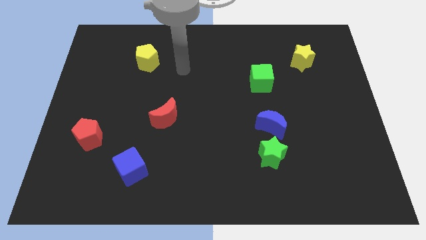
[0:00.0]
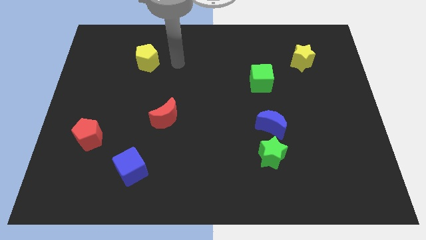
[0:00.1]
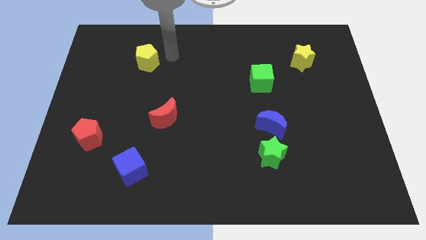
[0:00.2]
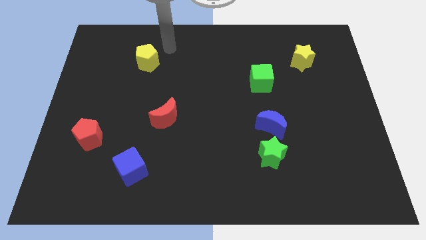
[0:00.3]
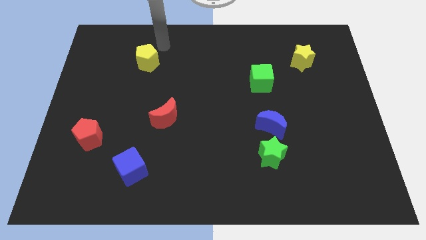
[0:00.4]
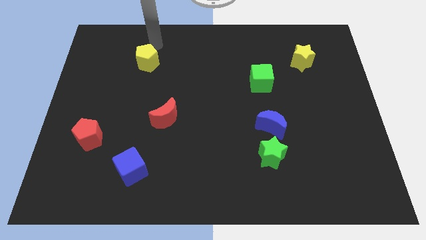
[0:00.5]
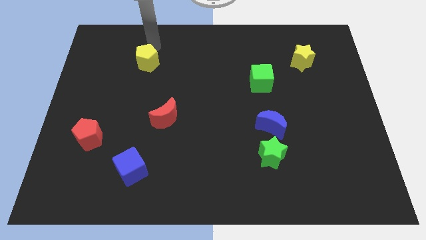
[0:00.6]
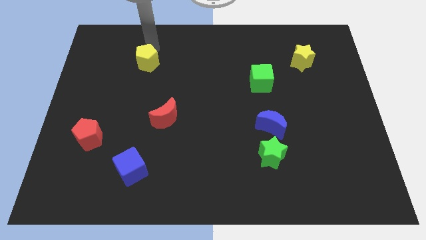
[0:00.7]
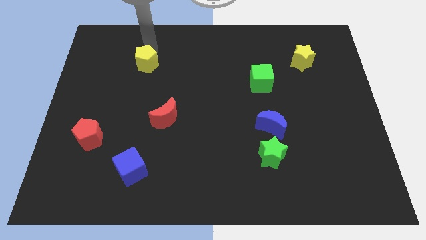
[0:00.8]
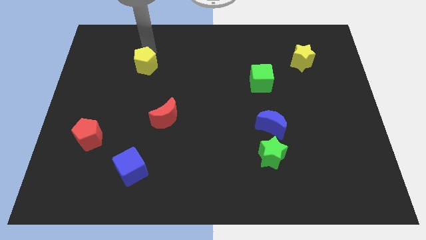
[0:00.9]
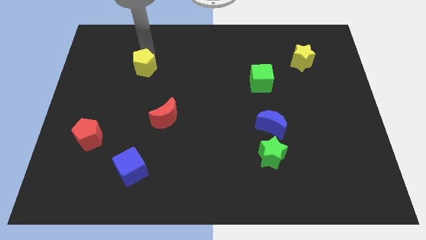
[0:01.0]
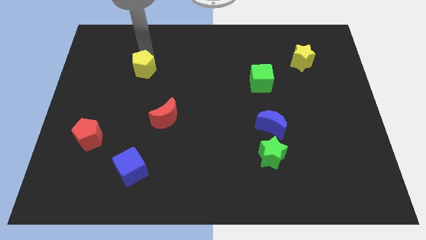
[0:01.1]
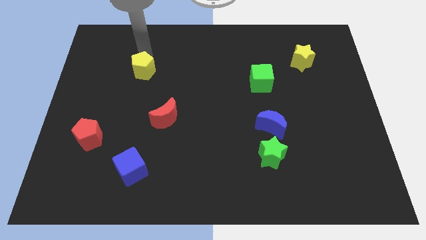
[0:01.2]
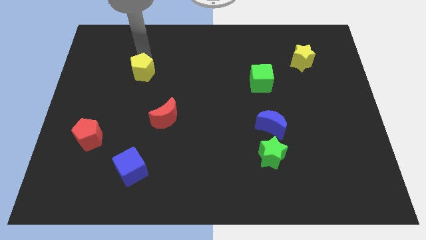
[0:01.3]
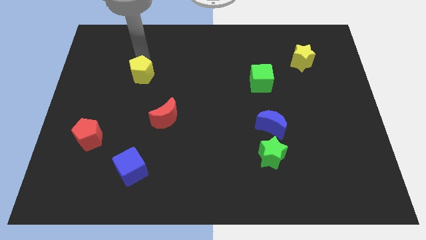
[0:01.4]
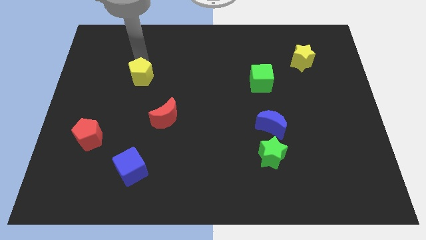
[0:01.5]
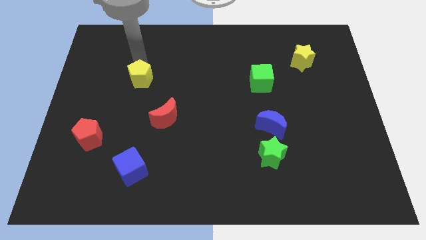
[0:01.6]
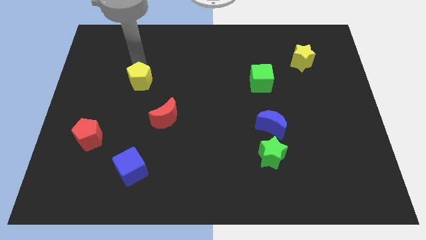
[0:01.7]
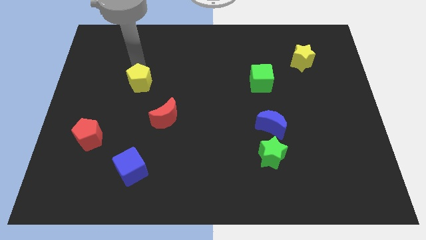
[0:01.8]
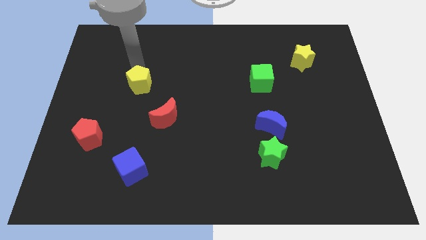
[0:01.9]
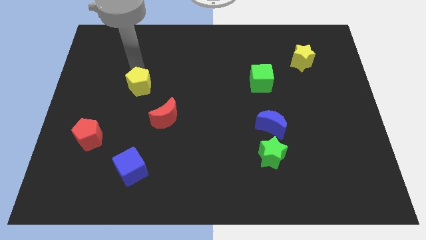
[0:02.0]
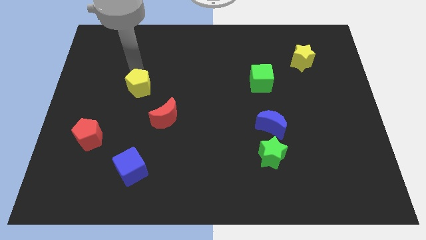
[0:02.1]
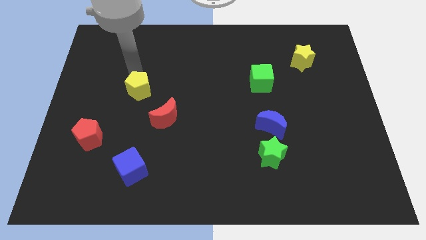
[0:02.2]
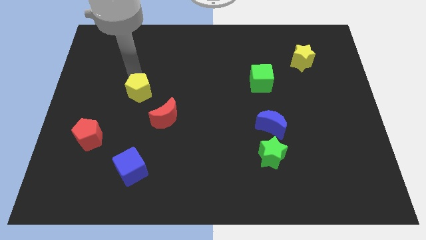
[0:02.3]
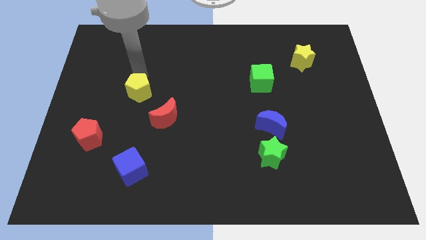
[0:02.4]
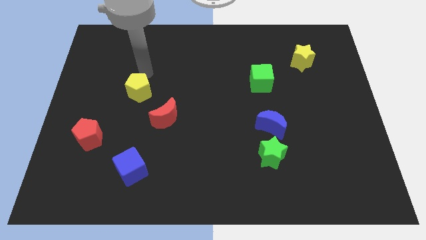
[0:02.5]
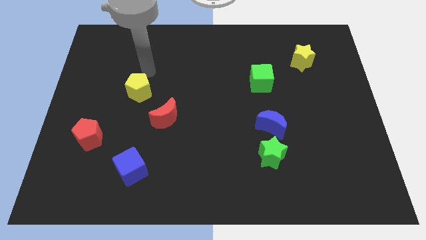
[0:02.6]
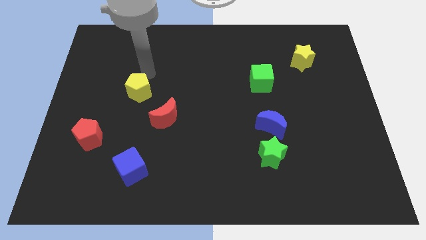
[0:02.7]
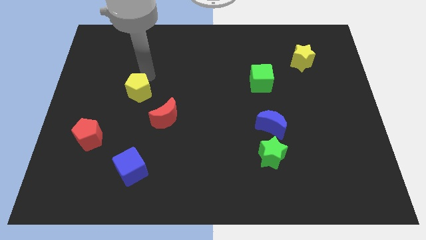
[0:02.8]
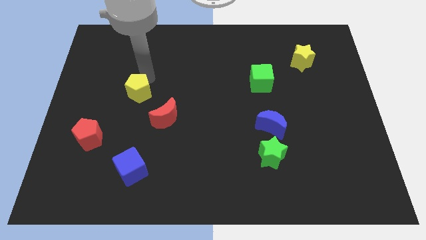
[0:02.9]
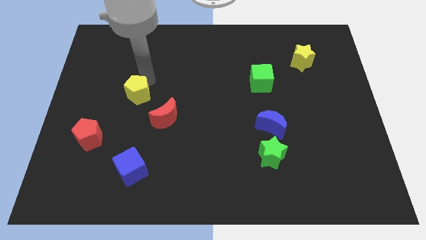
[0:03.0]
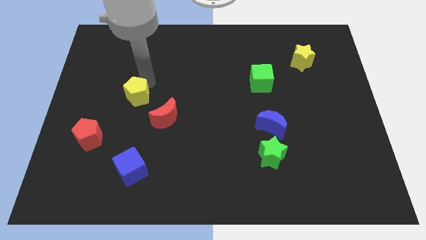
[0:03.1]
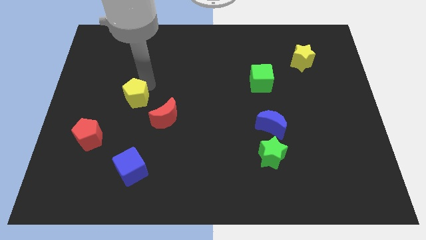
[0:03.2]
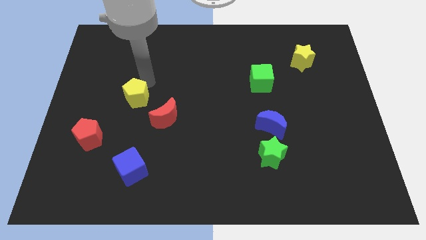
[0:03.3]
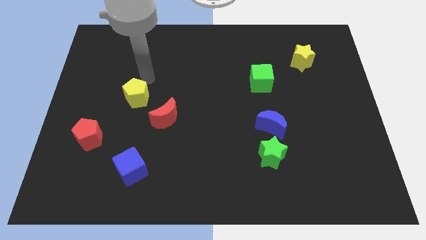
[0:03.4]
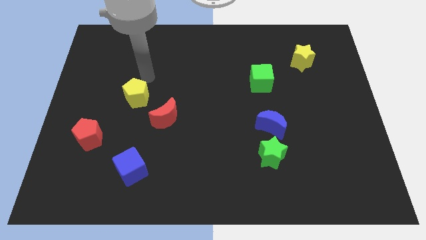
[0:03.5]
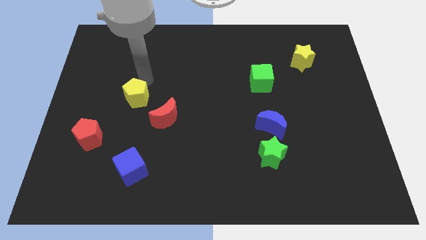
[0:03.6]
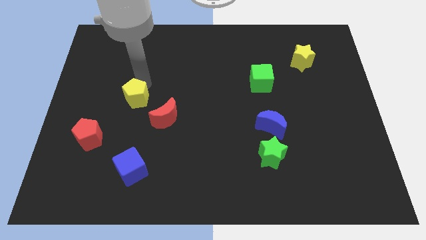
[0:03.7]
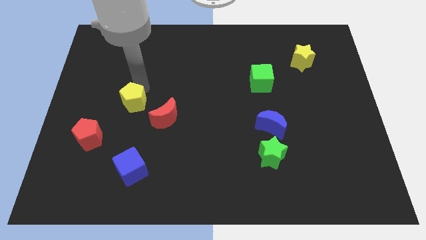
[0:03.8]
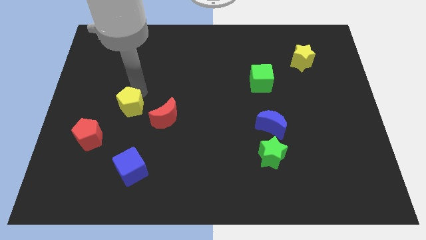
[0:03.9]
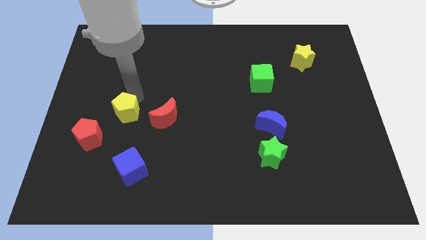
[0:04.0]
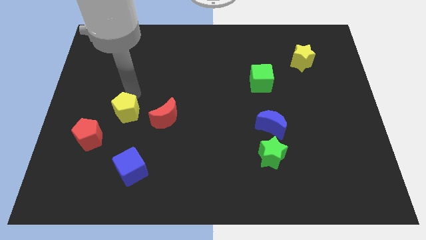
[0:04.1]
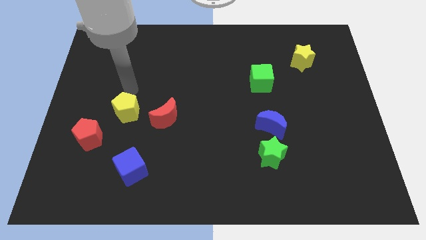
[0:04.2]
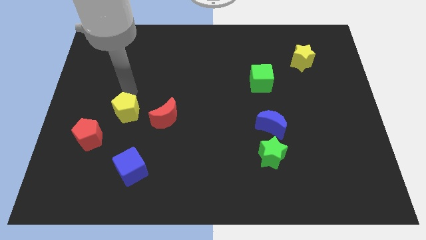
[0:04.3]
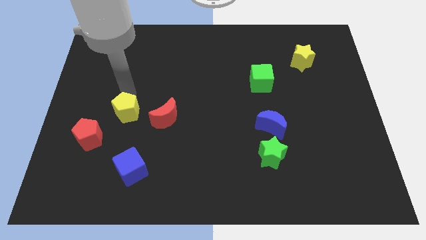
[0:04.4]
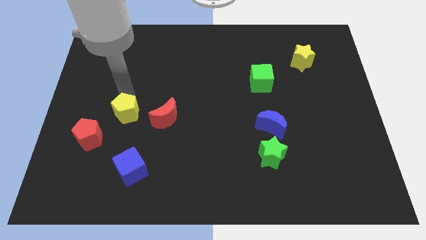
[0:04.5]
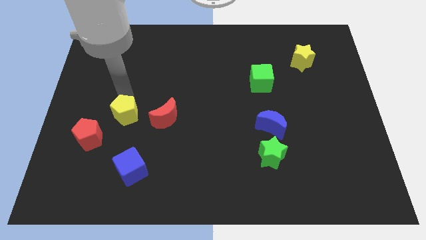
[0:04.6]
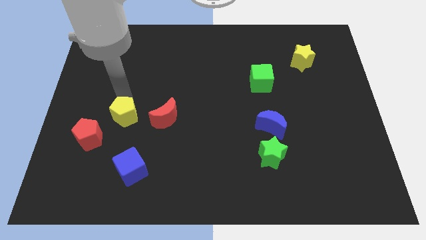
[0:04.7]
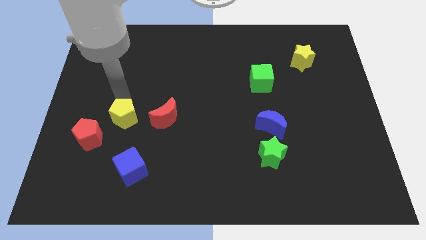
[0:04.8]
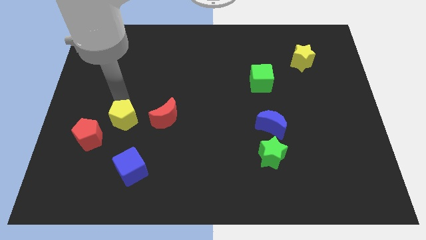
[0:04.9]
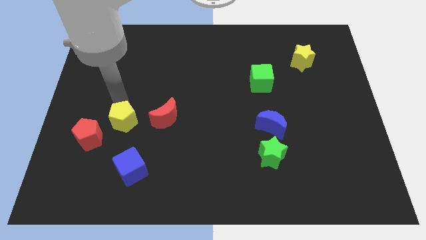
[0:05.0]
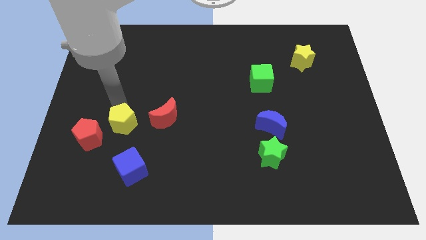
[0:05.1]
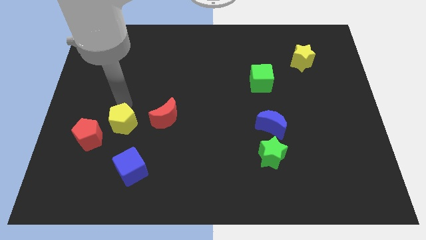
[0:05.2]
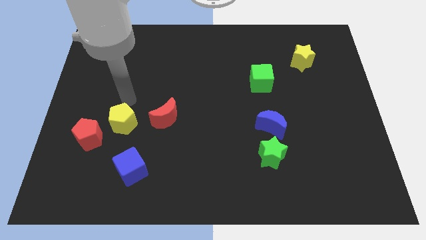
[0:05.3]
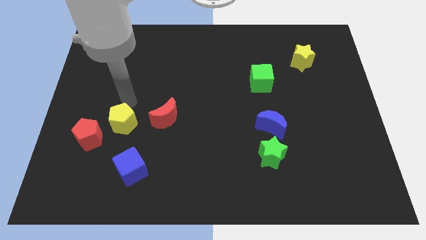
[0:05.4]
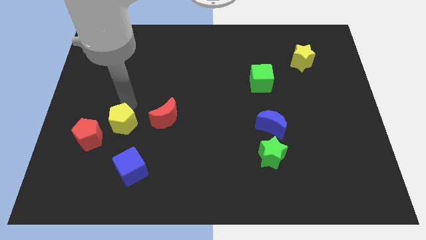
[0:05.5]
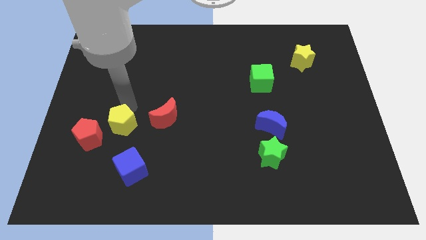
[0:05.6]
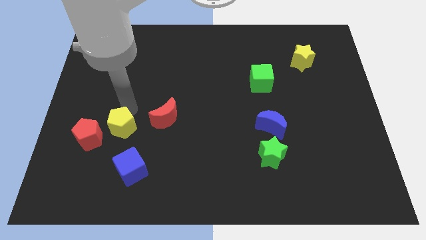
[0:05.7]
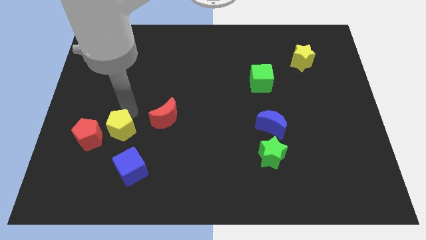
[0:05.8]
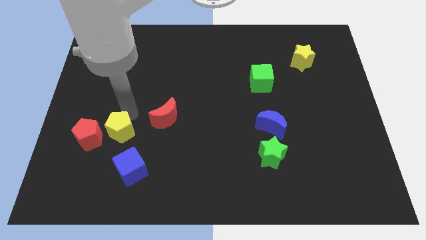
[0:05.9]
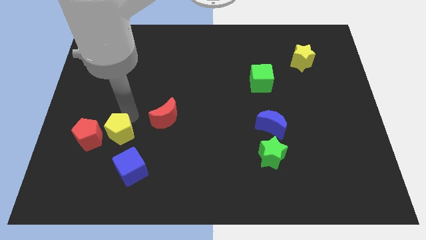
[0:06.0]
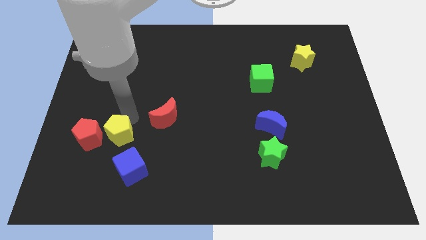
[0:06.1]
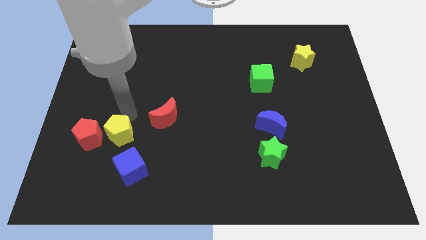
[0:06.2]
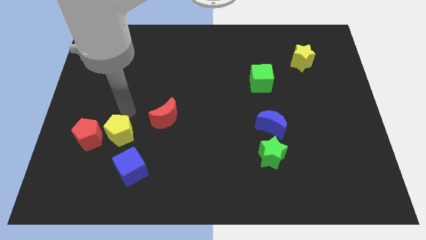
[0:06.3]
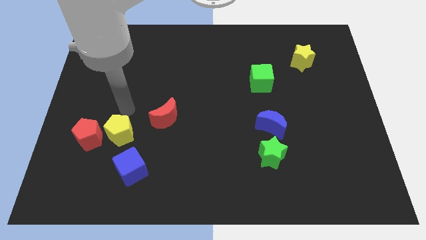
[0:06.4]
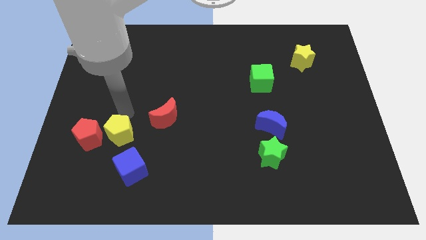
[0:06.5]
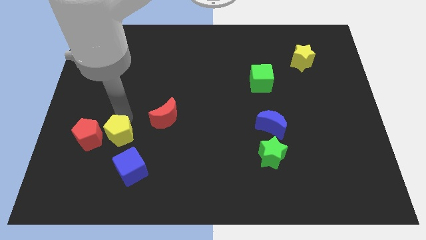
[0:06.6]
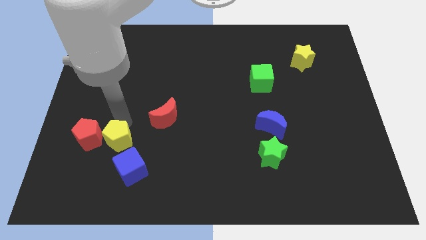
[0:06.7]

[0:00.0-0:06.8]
slide the yellow pentagon to the bottom right side of the red pentagon

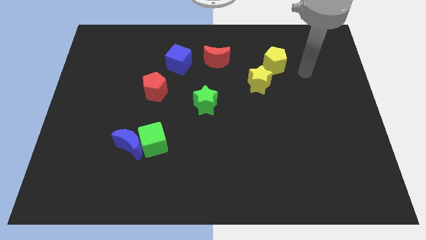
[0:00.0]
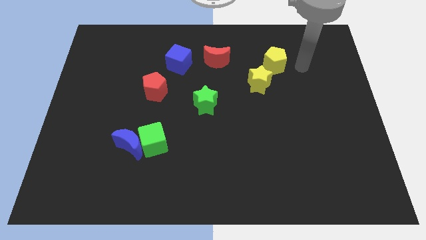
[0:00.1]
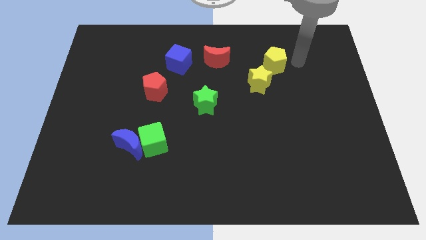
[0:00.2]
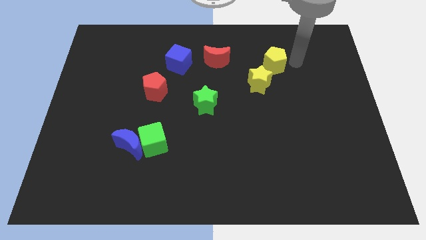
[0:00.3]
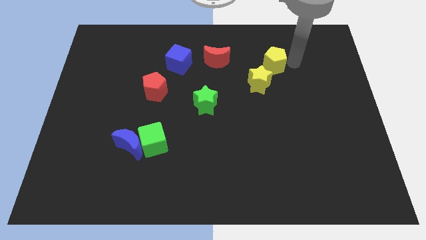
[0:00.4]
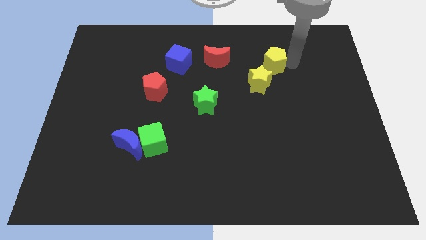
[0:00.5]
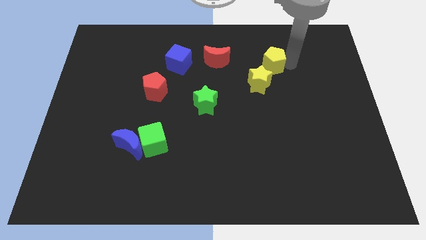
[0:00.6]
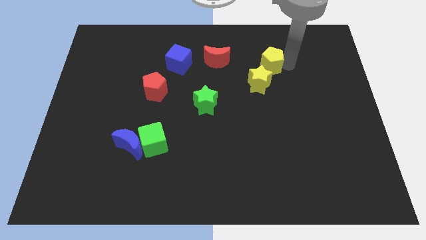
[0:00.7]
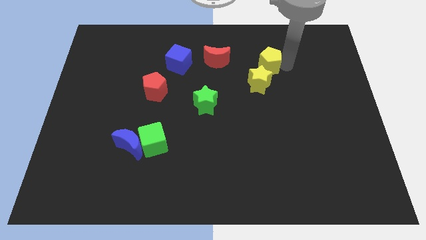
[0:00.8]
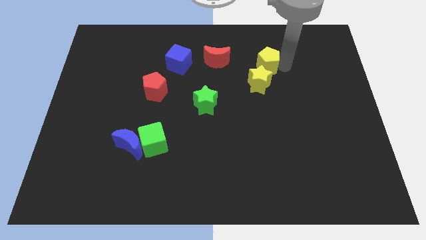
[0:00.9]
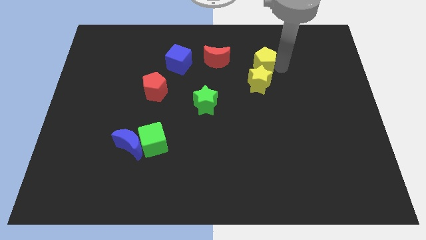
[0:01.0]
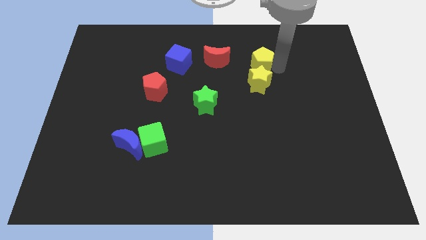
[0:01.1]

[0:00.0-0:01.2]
put the yellow pentagon to the top left of the yellow star
